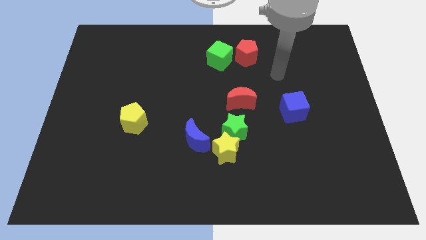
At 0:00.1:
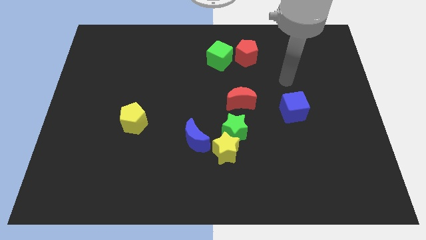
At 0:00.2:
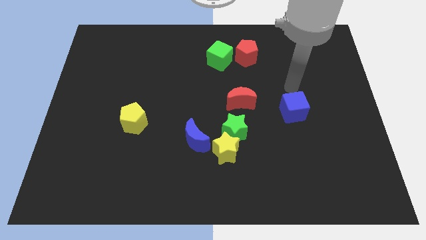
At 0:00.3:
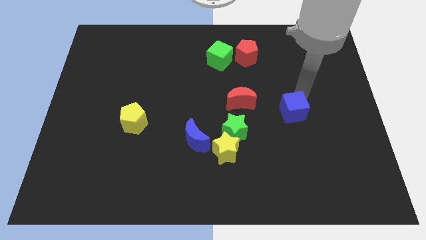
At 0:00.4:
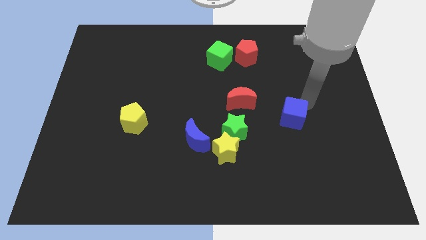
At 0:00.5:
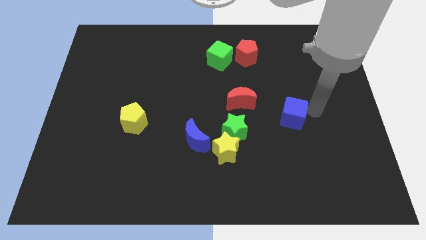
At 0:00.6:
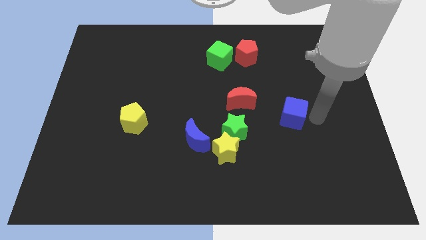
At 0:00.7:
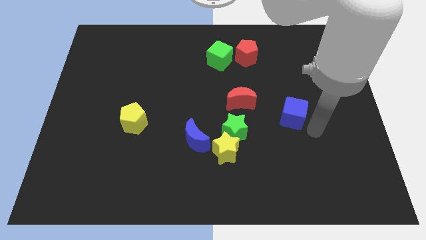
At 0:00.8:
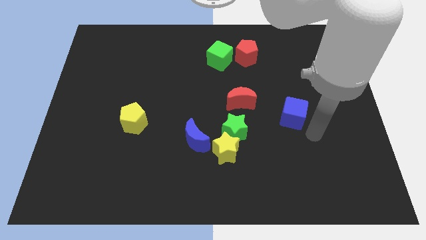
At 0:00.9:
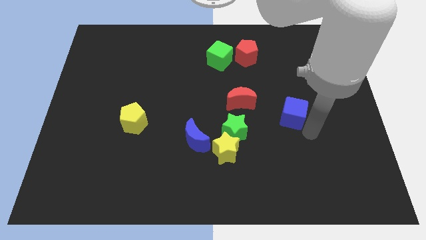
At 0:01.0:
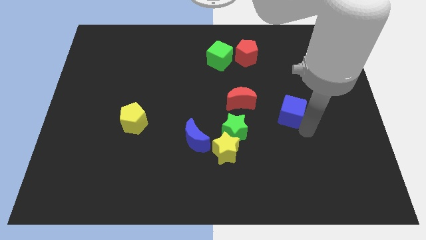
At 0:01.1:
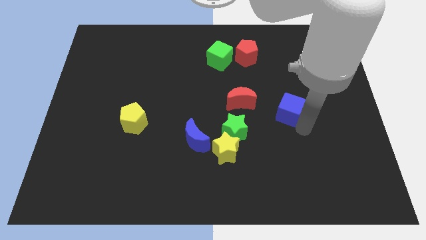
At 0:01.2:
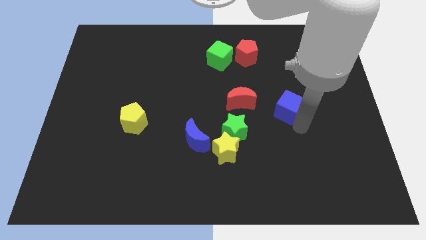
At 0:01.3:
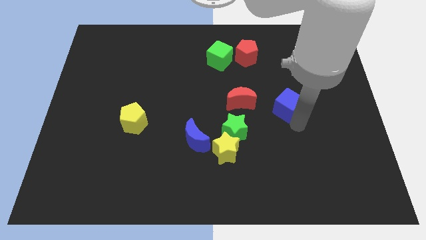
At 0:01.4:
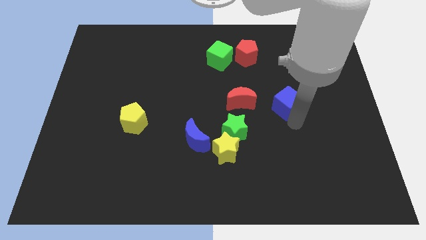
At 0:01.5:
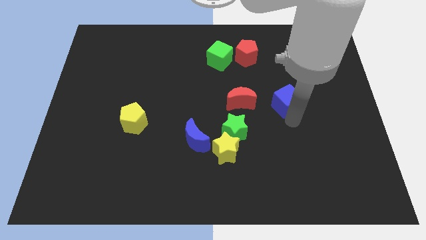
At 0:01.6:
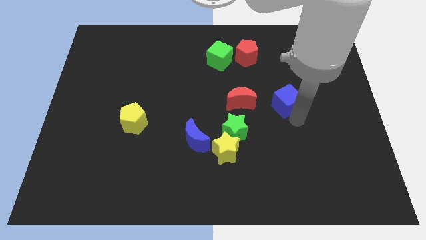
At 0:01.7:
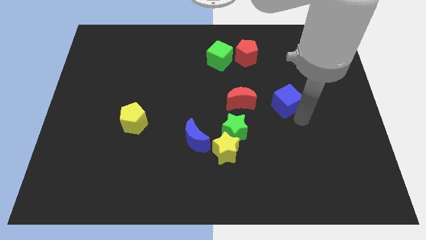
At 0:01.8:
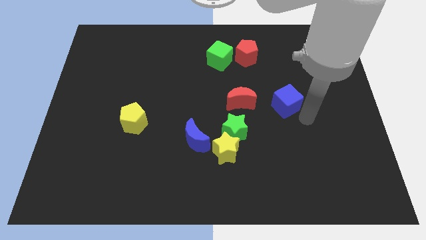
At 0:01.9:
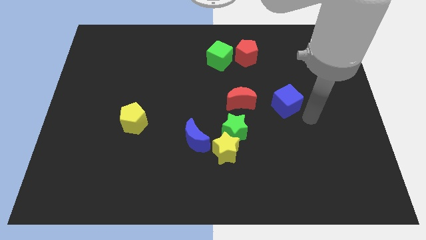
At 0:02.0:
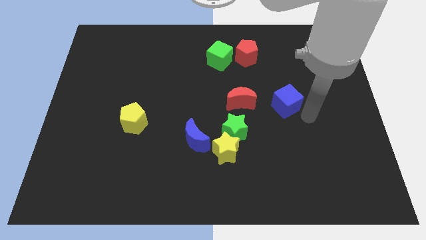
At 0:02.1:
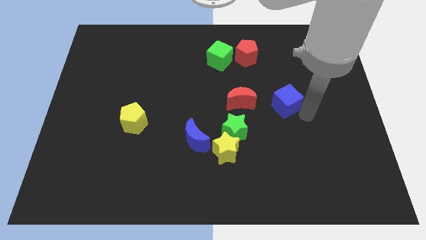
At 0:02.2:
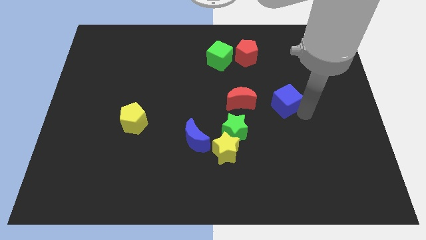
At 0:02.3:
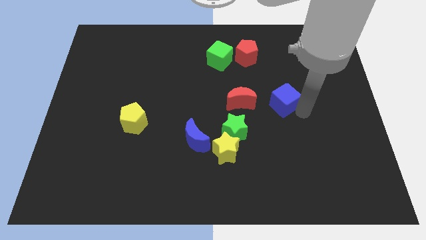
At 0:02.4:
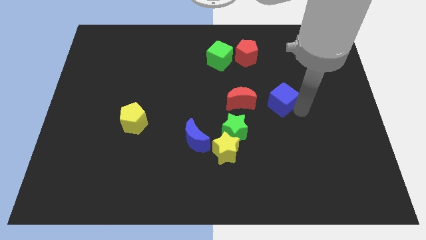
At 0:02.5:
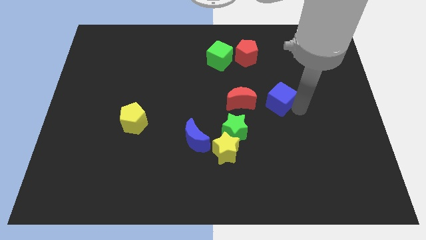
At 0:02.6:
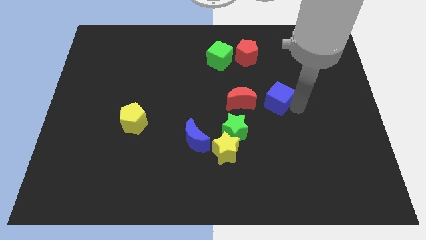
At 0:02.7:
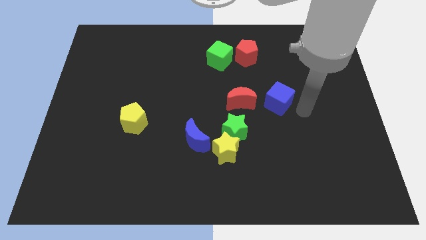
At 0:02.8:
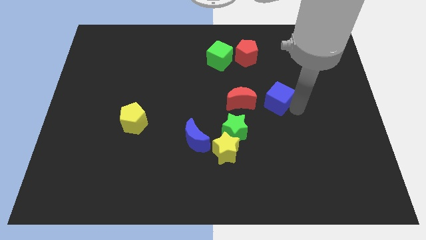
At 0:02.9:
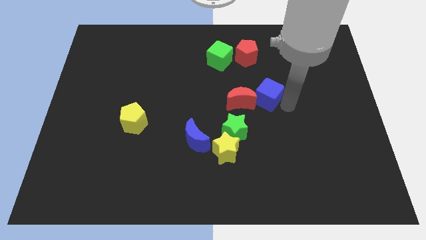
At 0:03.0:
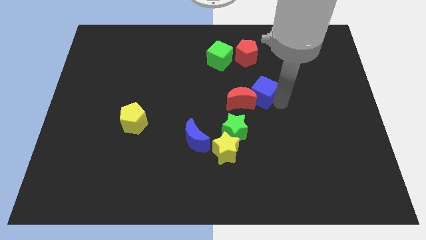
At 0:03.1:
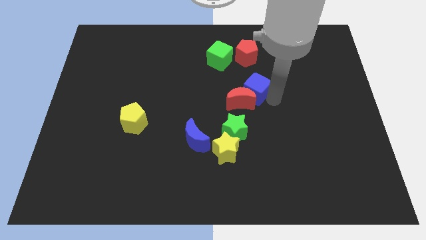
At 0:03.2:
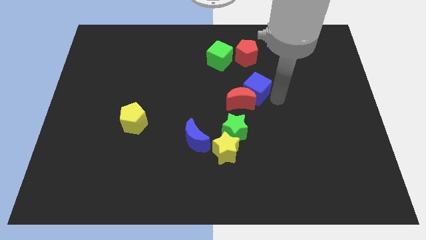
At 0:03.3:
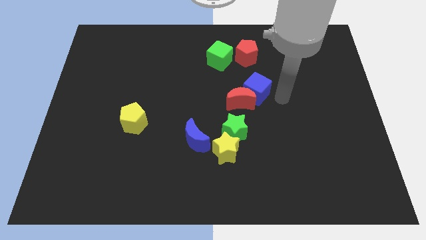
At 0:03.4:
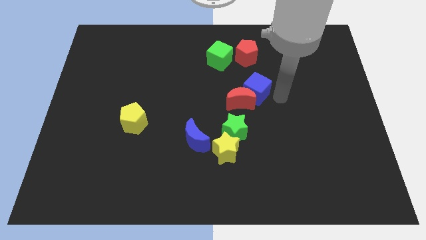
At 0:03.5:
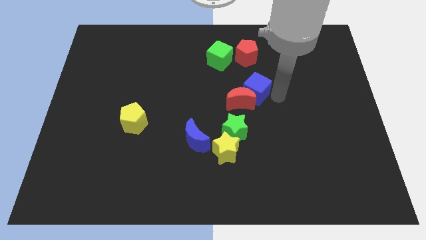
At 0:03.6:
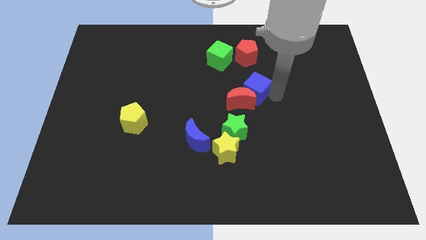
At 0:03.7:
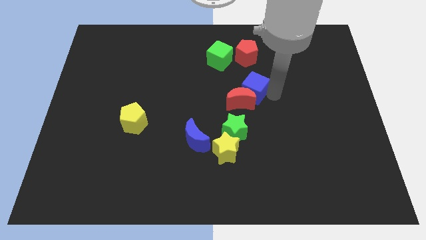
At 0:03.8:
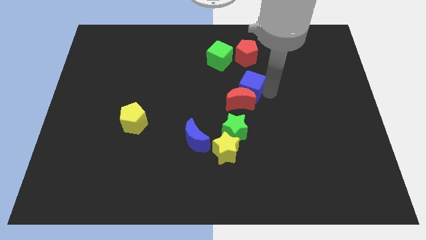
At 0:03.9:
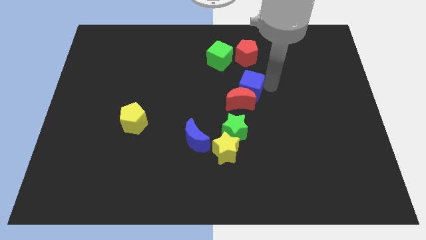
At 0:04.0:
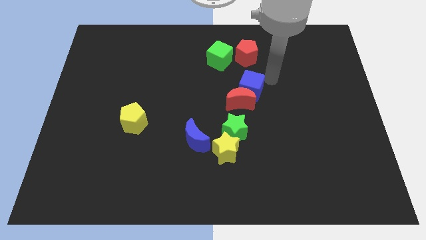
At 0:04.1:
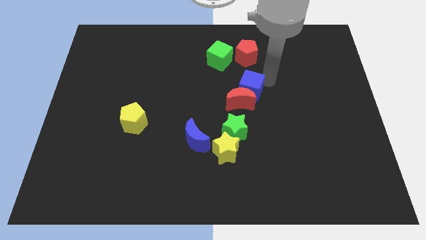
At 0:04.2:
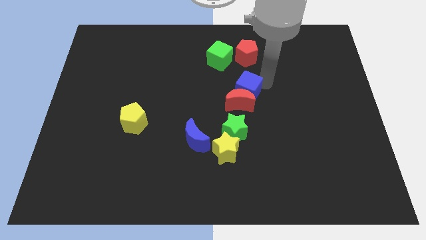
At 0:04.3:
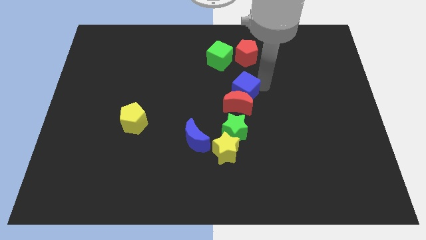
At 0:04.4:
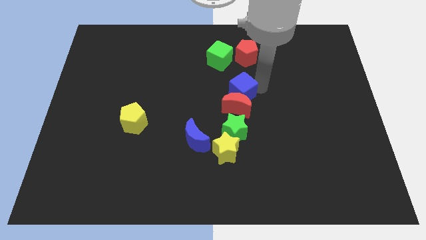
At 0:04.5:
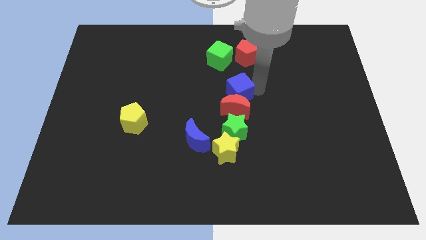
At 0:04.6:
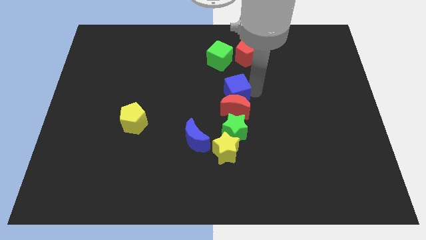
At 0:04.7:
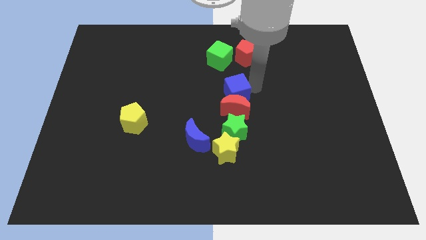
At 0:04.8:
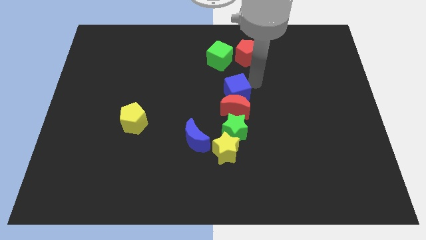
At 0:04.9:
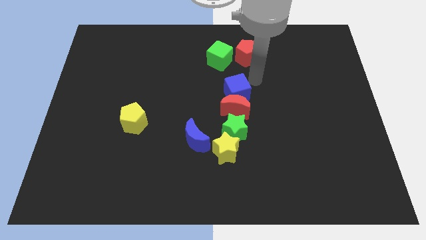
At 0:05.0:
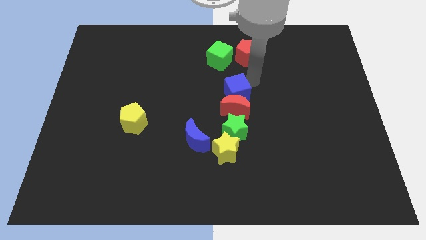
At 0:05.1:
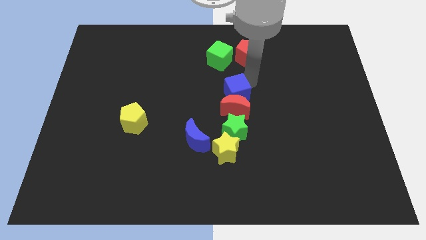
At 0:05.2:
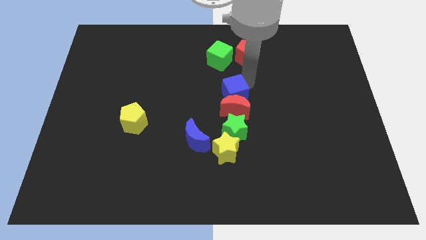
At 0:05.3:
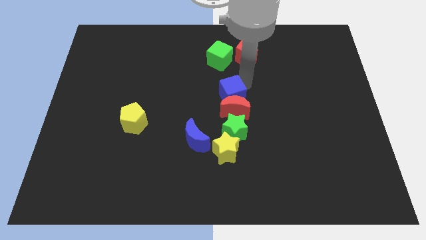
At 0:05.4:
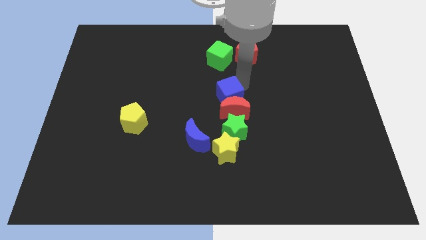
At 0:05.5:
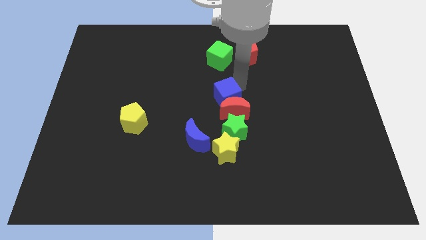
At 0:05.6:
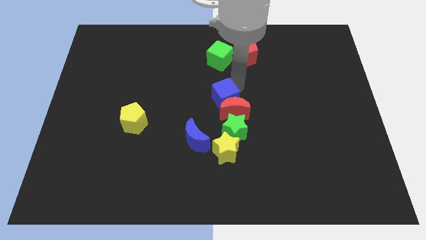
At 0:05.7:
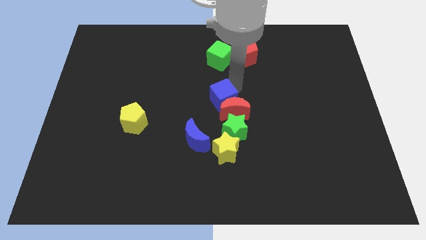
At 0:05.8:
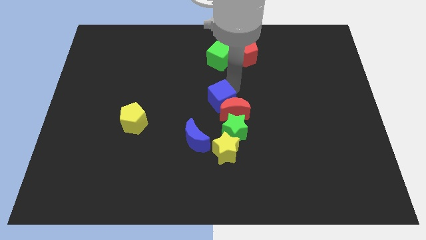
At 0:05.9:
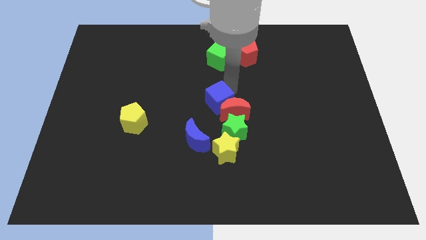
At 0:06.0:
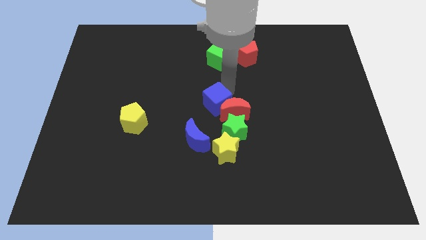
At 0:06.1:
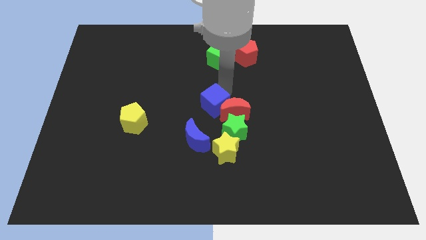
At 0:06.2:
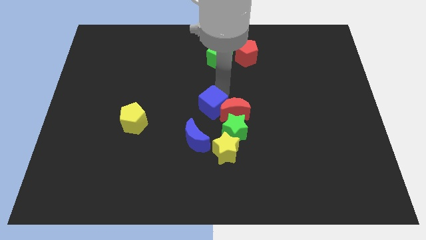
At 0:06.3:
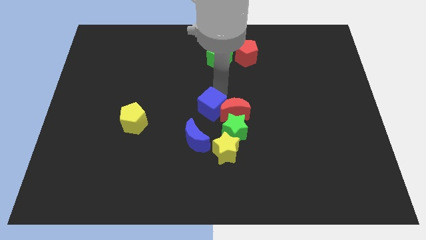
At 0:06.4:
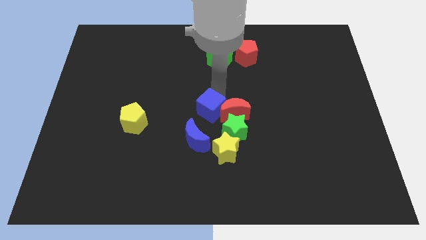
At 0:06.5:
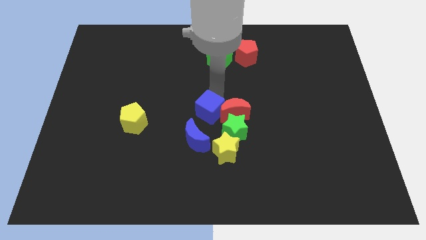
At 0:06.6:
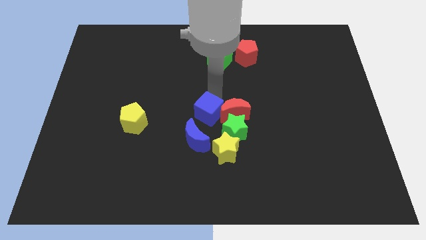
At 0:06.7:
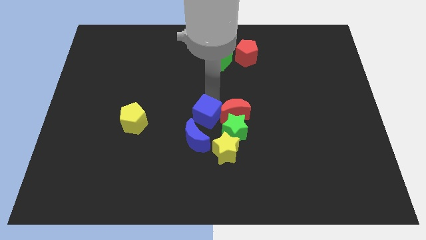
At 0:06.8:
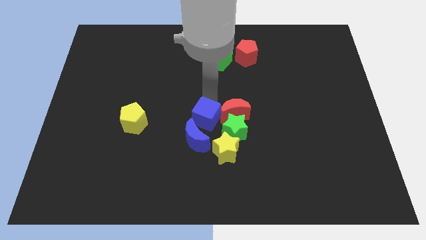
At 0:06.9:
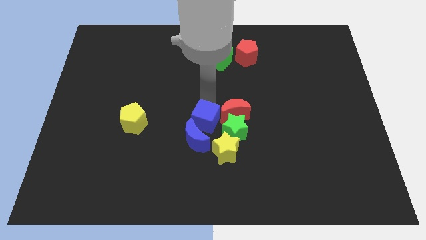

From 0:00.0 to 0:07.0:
move the blue cube towards the blue moon

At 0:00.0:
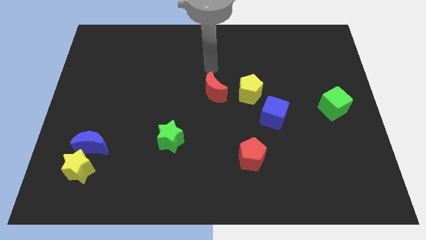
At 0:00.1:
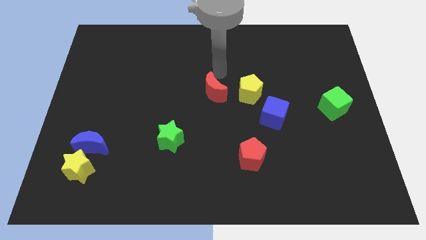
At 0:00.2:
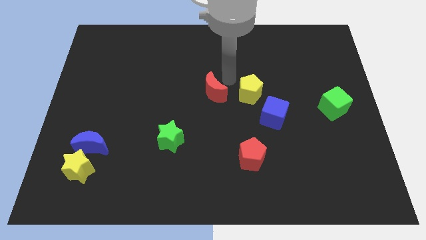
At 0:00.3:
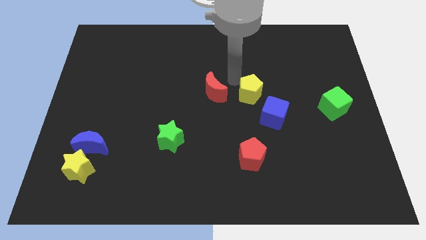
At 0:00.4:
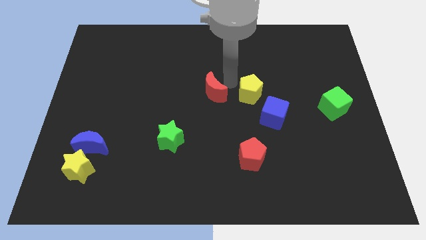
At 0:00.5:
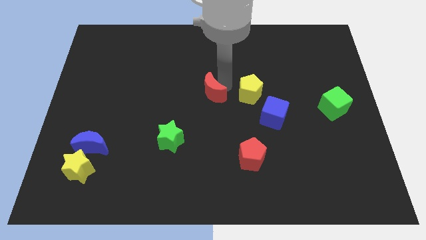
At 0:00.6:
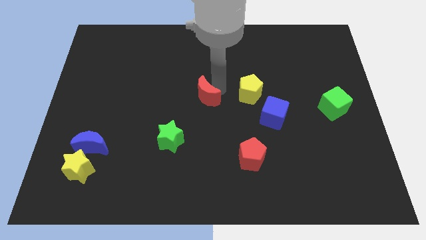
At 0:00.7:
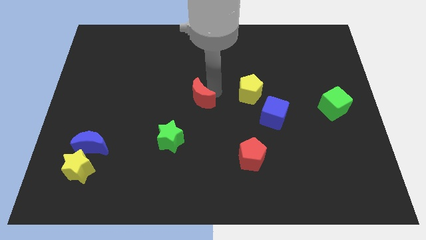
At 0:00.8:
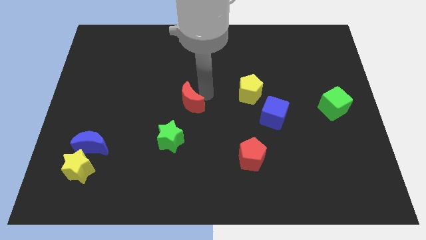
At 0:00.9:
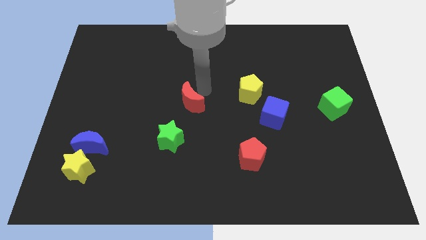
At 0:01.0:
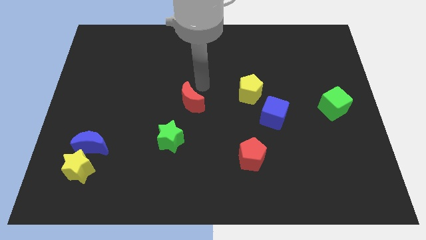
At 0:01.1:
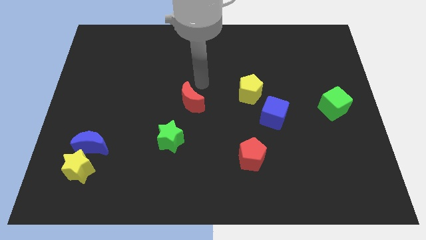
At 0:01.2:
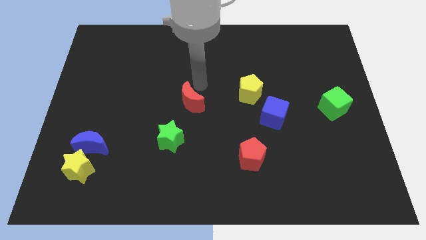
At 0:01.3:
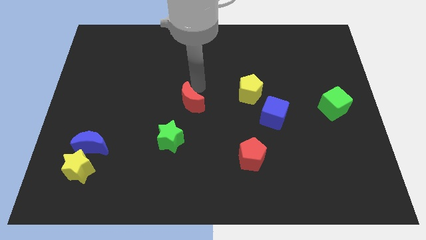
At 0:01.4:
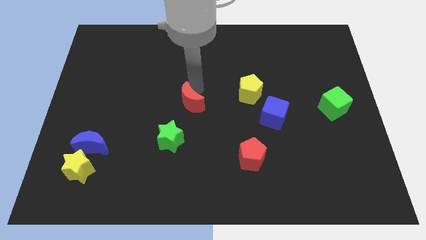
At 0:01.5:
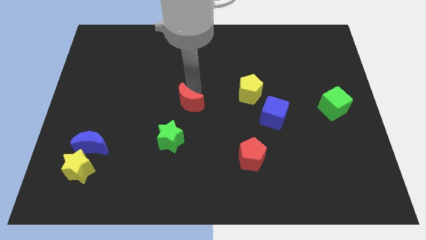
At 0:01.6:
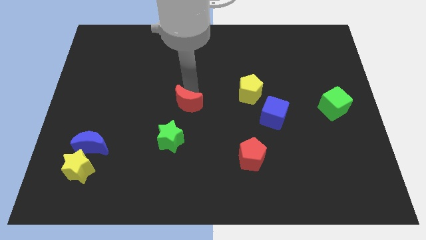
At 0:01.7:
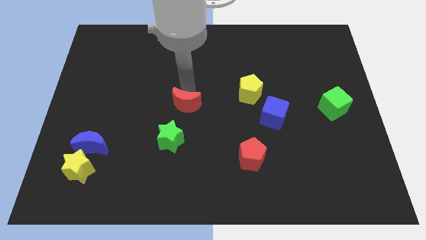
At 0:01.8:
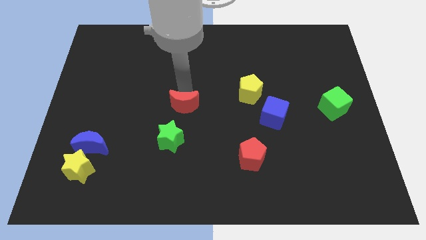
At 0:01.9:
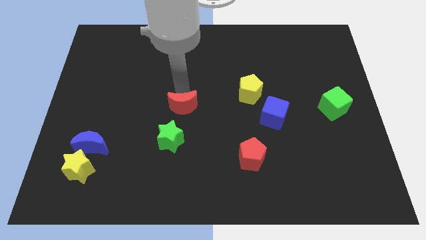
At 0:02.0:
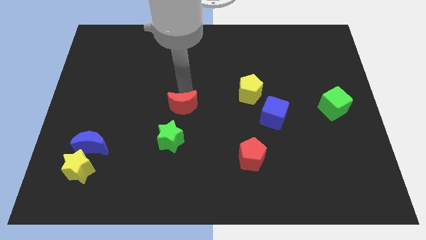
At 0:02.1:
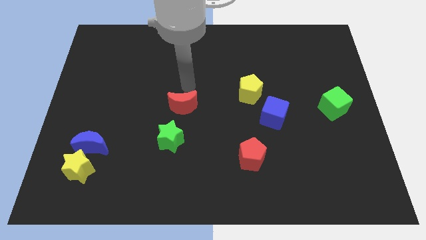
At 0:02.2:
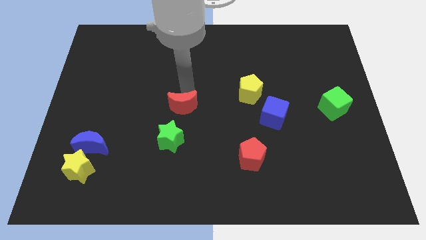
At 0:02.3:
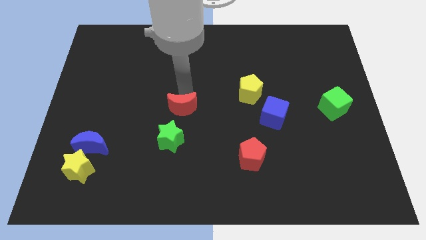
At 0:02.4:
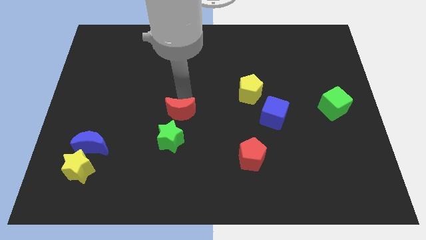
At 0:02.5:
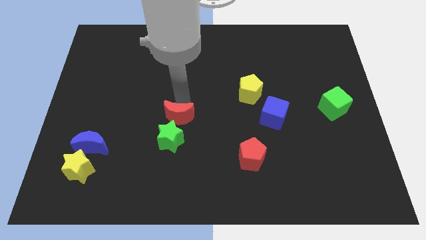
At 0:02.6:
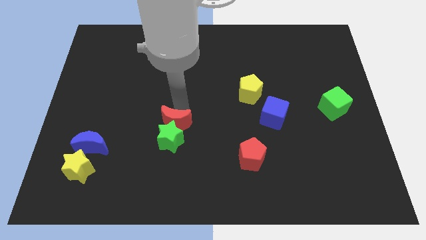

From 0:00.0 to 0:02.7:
push the red moon close to the green star
